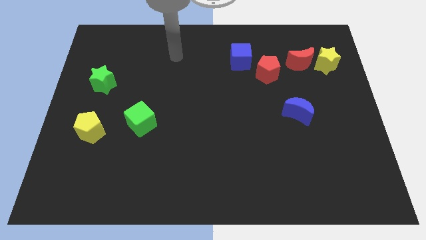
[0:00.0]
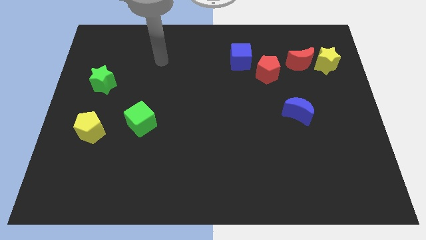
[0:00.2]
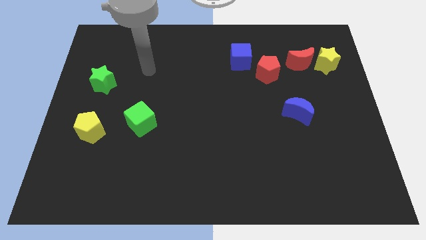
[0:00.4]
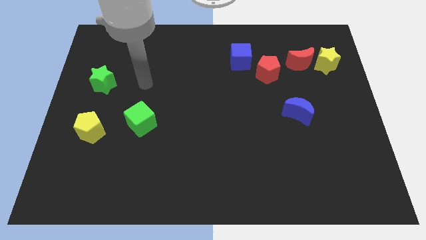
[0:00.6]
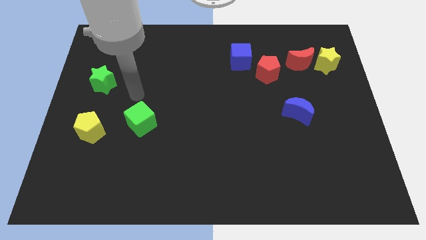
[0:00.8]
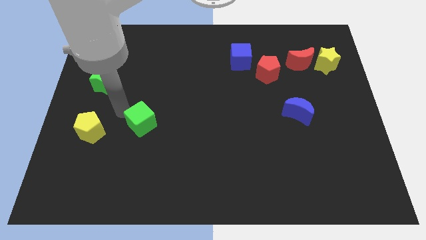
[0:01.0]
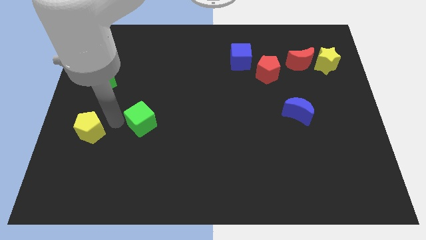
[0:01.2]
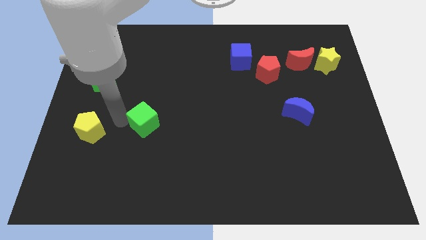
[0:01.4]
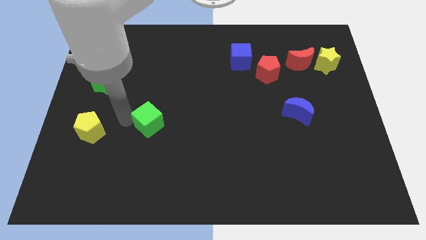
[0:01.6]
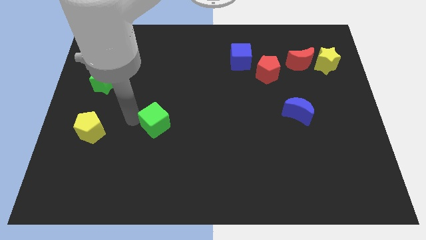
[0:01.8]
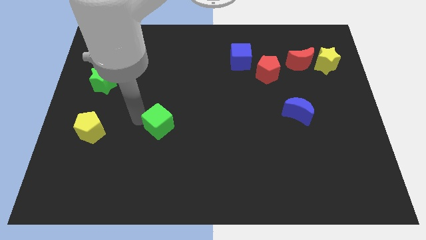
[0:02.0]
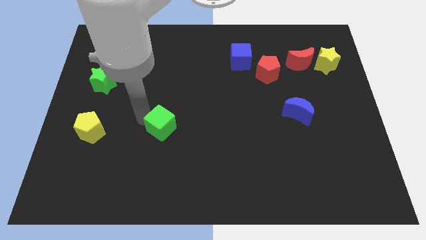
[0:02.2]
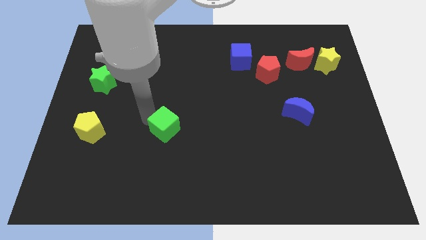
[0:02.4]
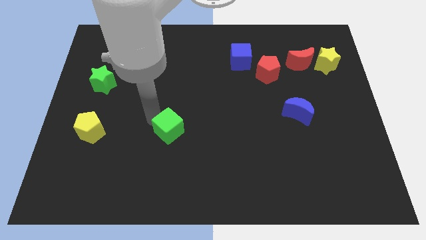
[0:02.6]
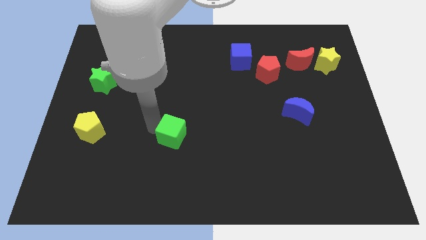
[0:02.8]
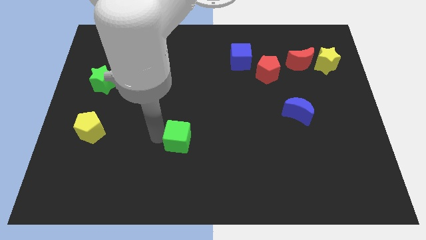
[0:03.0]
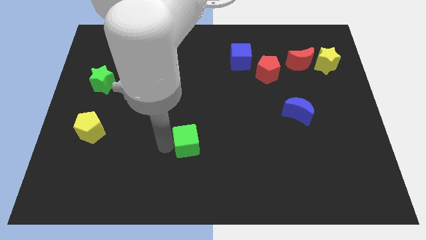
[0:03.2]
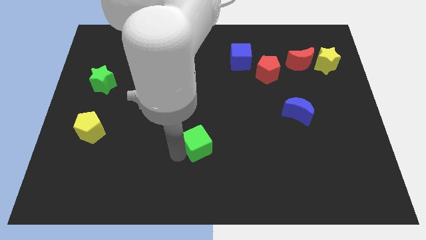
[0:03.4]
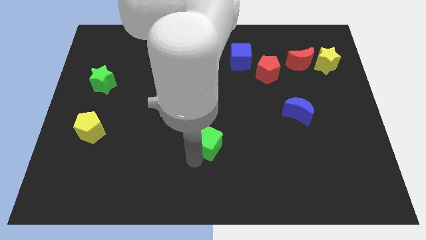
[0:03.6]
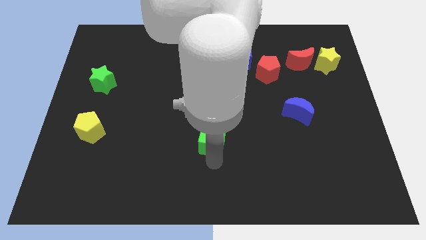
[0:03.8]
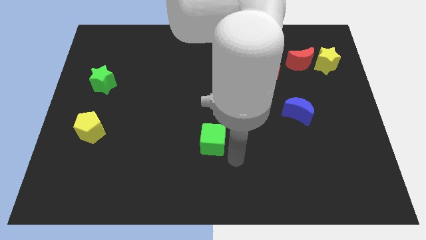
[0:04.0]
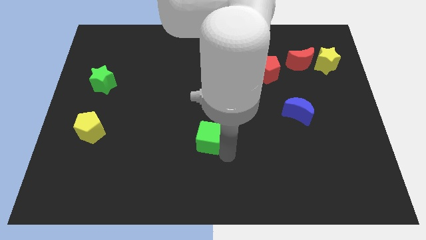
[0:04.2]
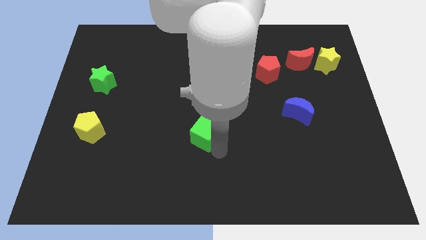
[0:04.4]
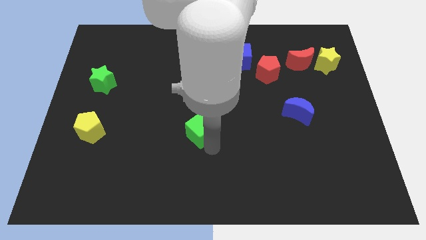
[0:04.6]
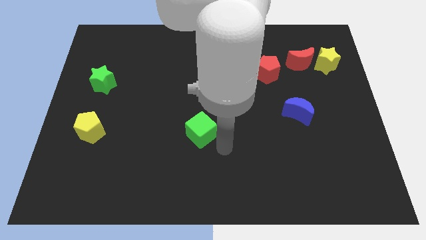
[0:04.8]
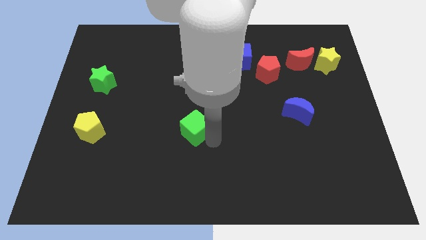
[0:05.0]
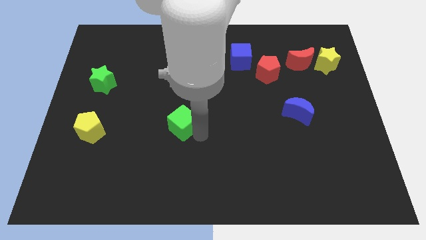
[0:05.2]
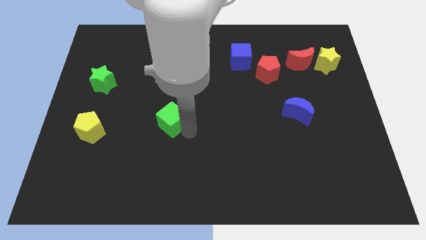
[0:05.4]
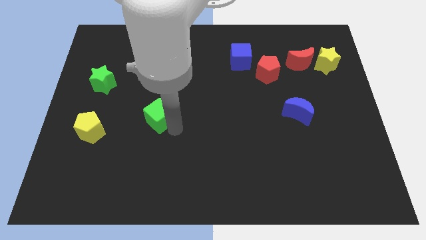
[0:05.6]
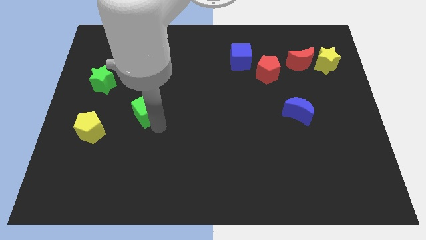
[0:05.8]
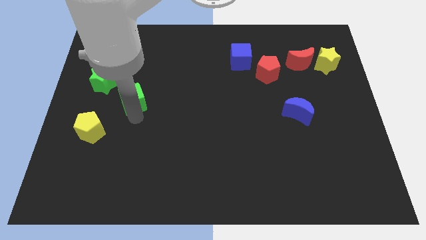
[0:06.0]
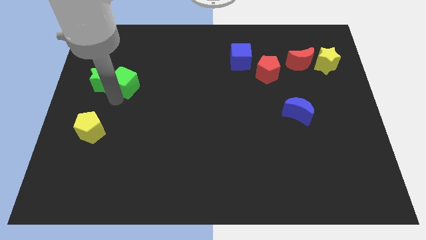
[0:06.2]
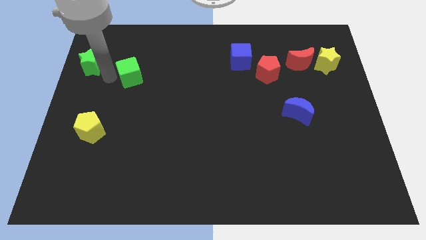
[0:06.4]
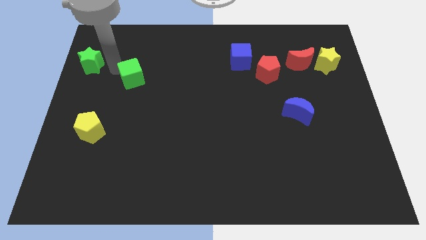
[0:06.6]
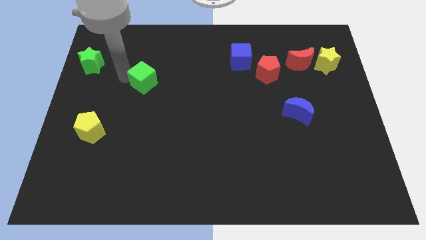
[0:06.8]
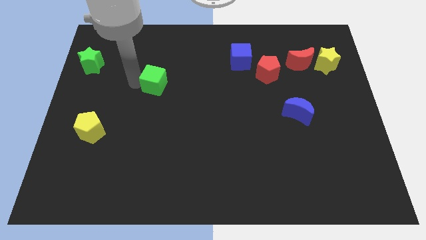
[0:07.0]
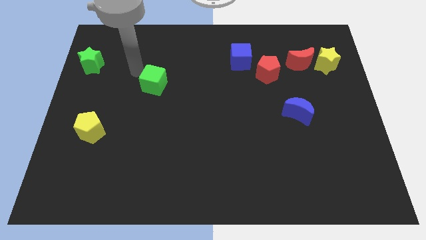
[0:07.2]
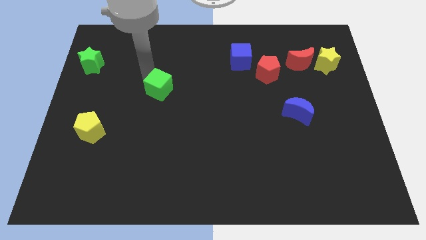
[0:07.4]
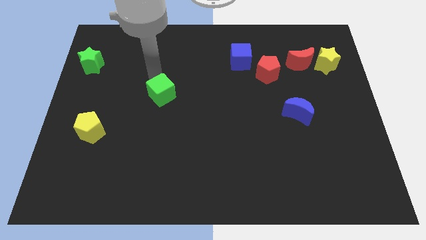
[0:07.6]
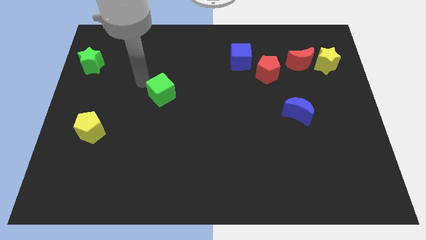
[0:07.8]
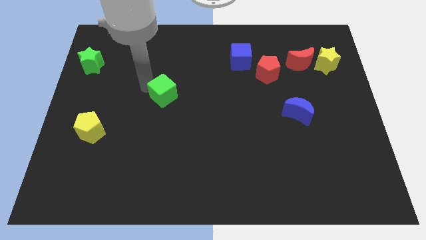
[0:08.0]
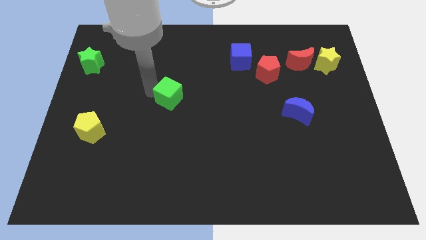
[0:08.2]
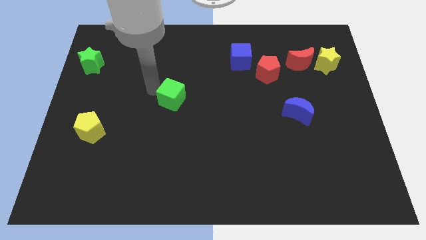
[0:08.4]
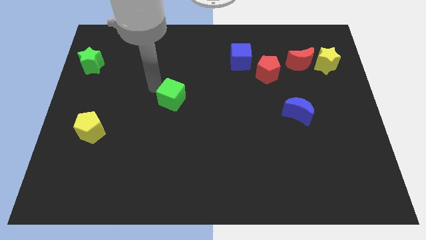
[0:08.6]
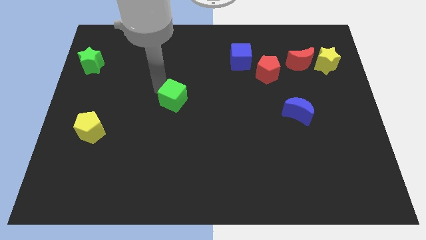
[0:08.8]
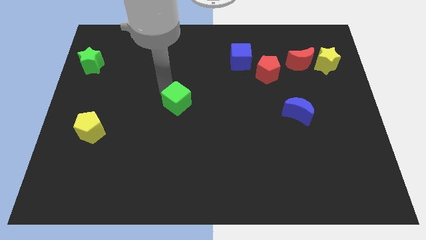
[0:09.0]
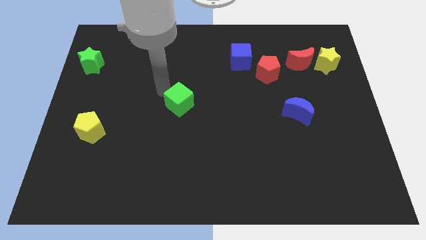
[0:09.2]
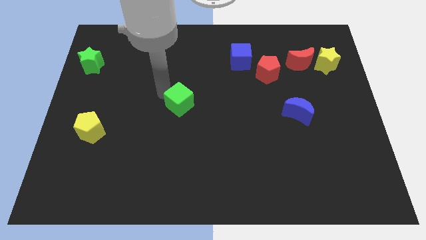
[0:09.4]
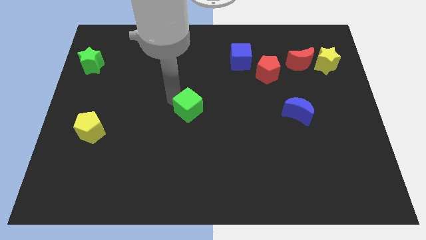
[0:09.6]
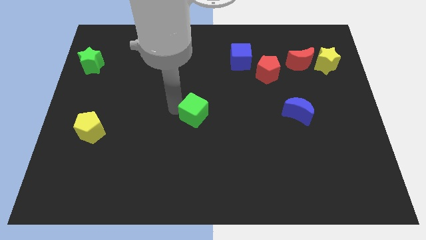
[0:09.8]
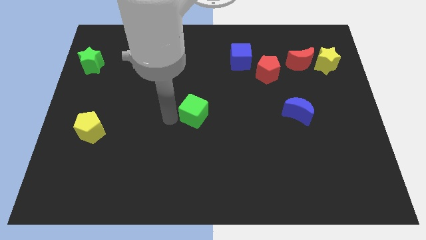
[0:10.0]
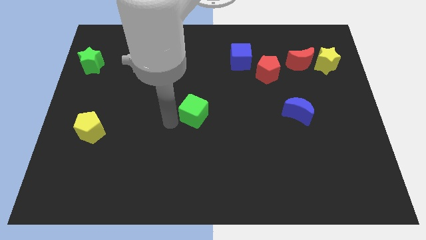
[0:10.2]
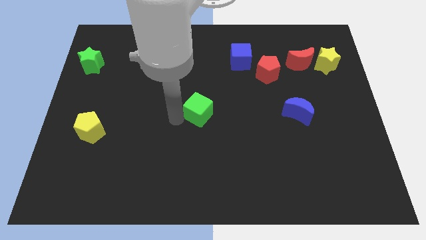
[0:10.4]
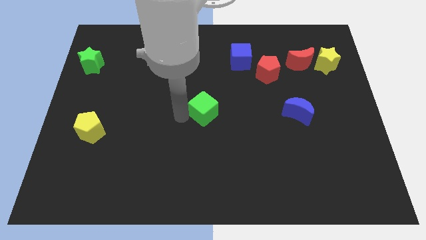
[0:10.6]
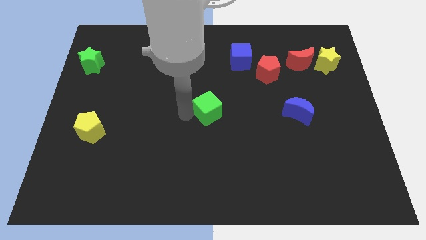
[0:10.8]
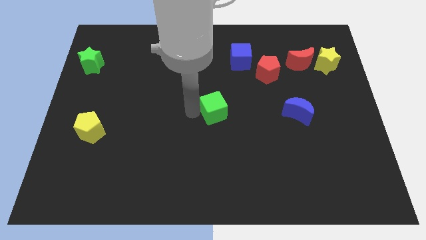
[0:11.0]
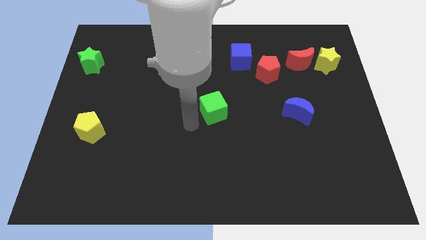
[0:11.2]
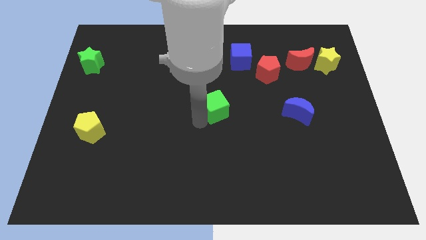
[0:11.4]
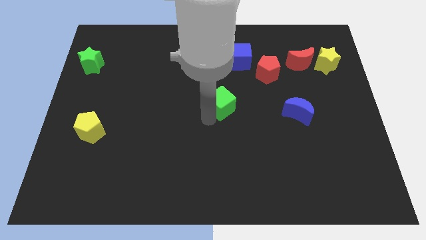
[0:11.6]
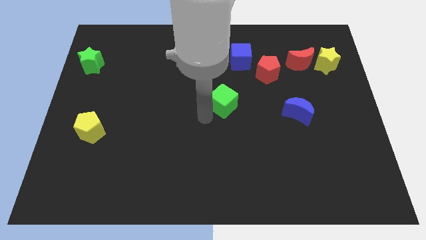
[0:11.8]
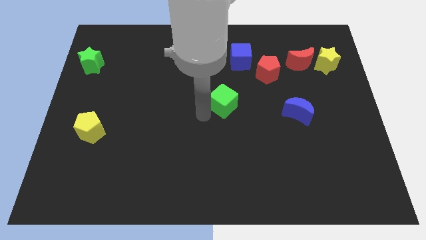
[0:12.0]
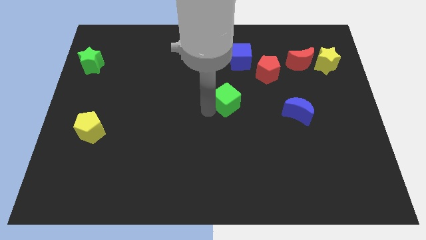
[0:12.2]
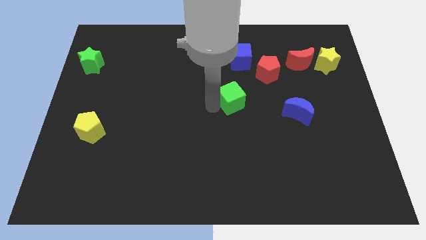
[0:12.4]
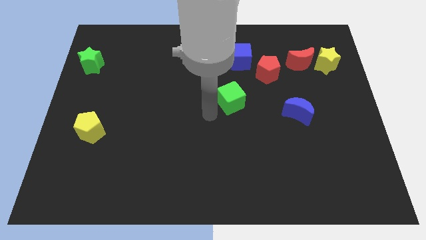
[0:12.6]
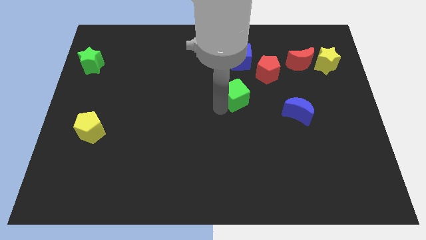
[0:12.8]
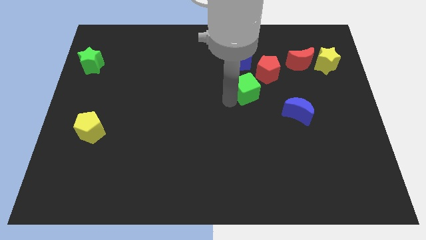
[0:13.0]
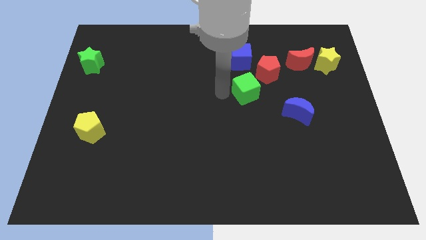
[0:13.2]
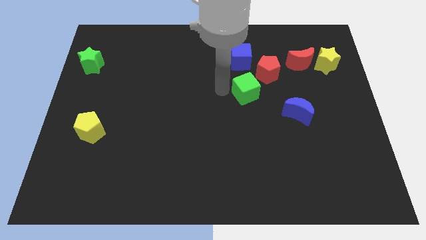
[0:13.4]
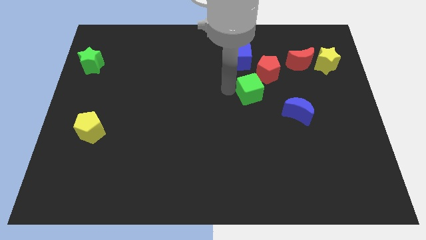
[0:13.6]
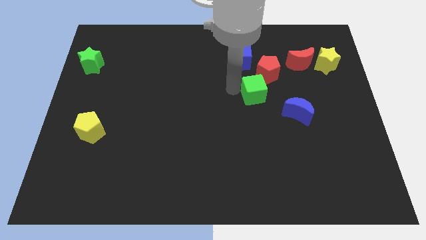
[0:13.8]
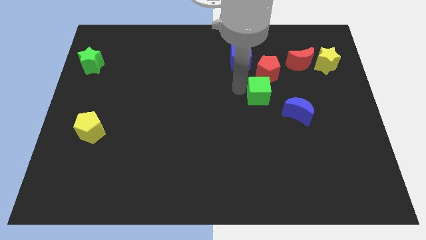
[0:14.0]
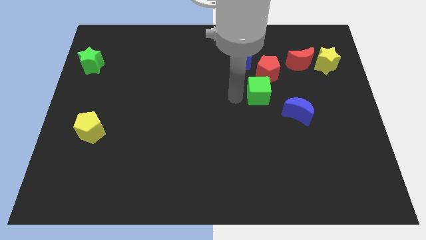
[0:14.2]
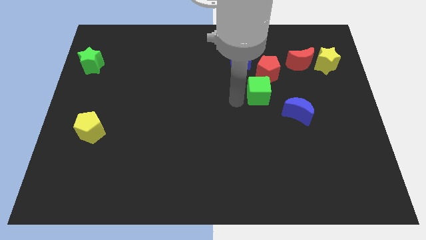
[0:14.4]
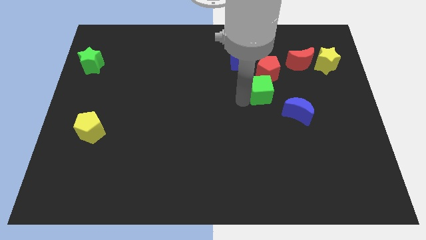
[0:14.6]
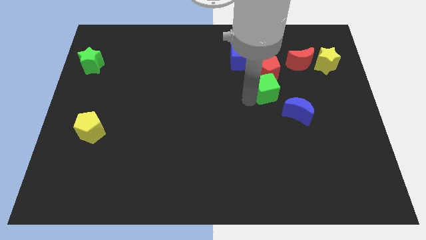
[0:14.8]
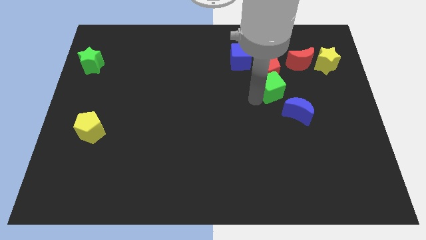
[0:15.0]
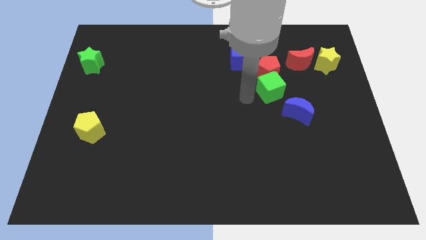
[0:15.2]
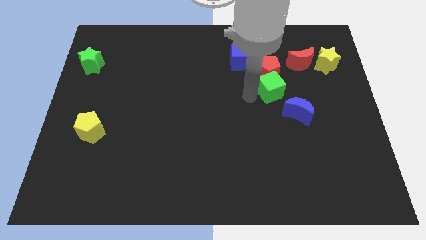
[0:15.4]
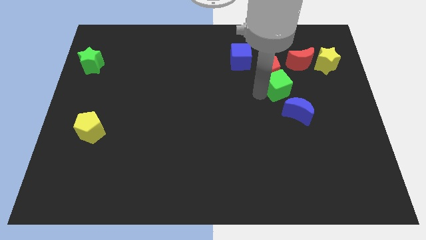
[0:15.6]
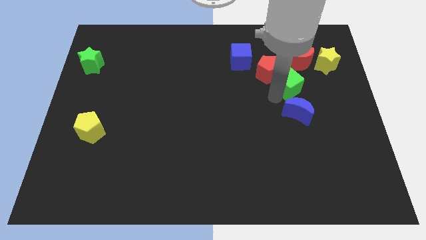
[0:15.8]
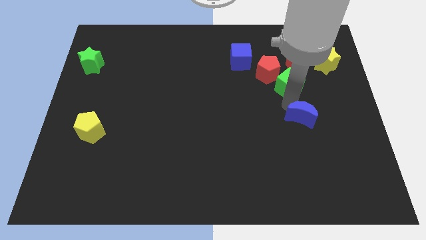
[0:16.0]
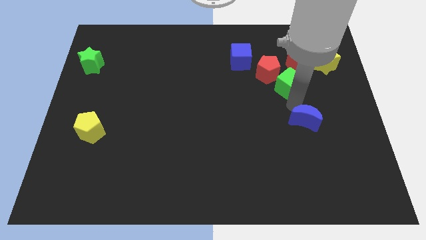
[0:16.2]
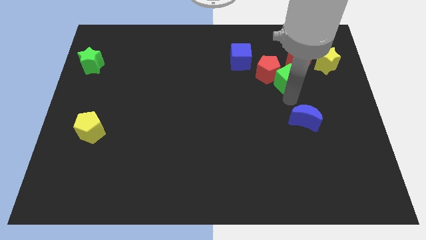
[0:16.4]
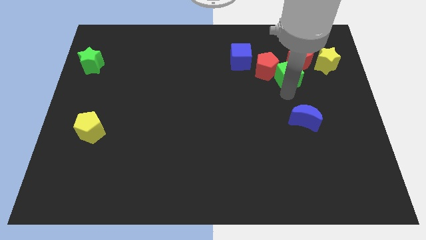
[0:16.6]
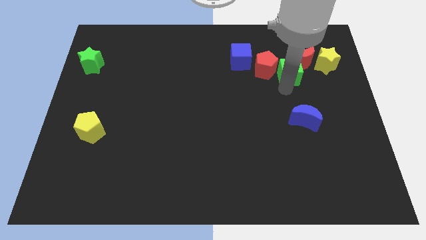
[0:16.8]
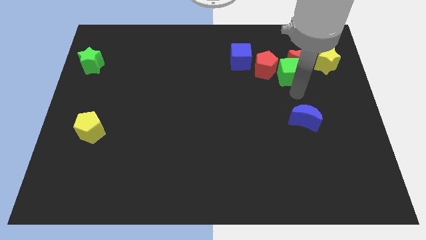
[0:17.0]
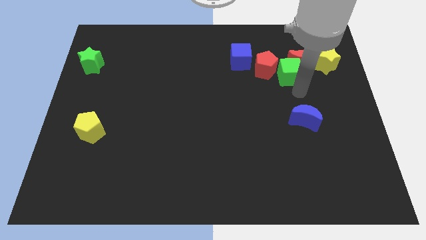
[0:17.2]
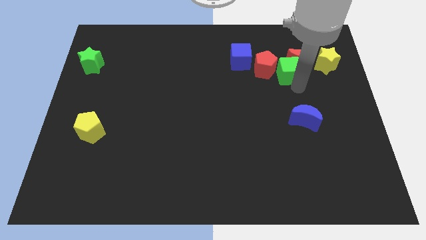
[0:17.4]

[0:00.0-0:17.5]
push the green cube just right of the blue cube
